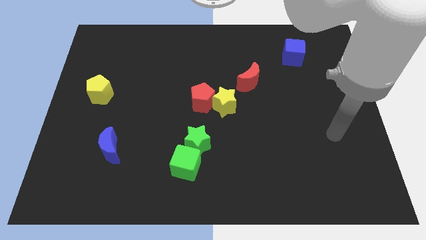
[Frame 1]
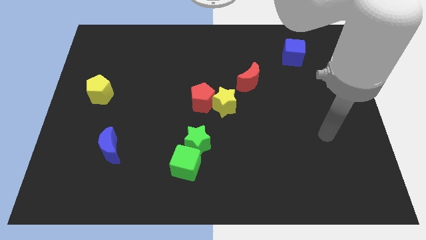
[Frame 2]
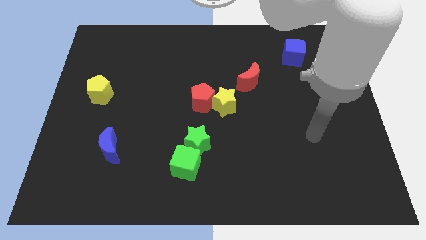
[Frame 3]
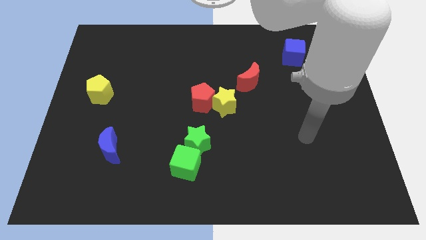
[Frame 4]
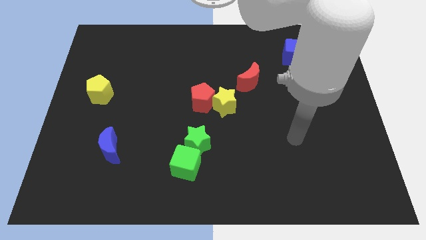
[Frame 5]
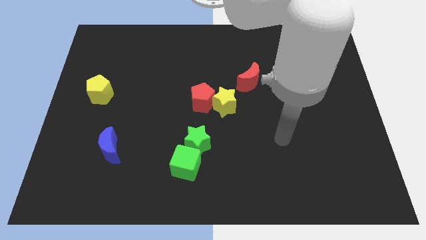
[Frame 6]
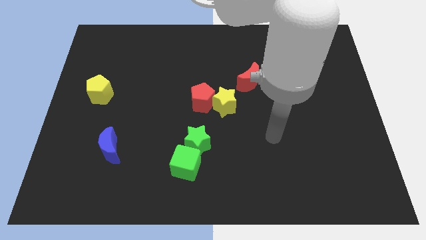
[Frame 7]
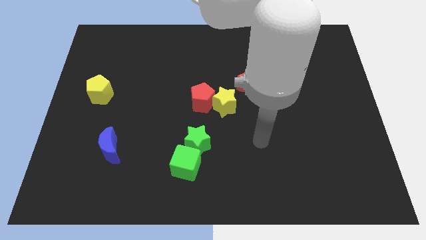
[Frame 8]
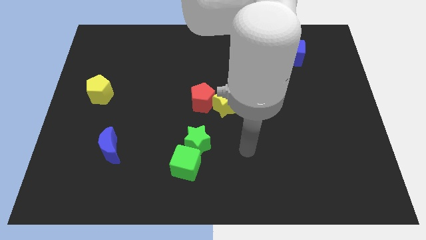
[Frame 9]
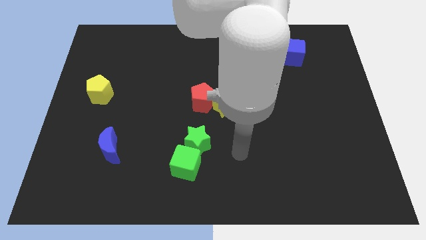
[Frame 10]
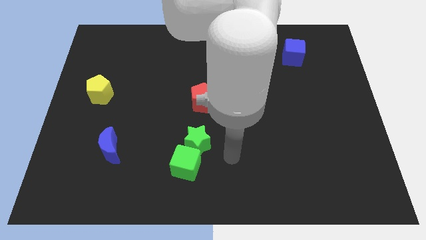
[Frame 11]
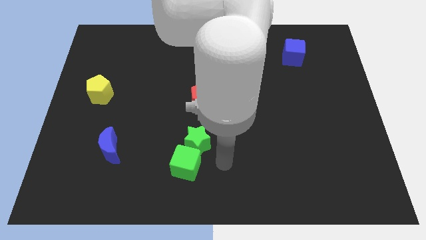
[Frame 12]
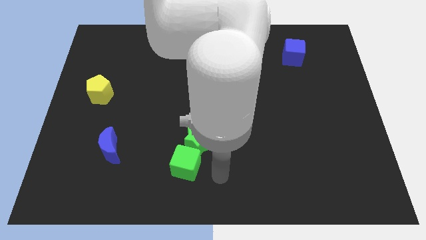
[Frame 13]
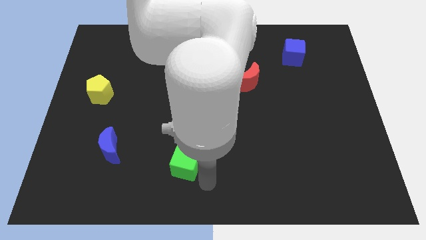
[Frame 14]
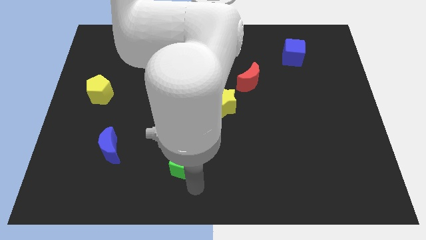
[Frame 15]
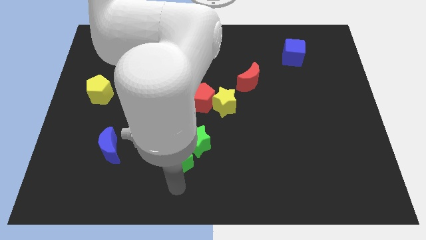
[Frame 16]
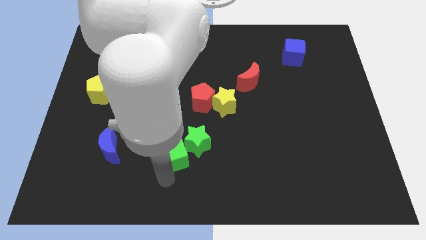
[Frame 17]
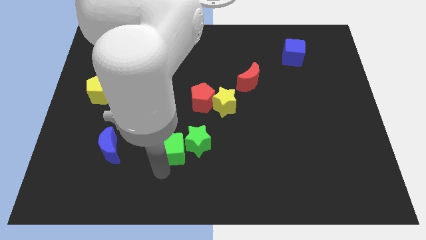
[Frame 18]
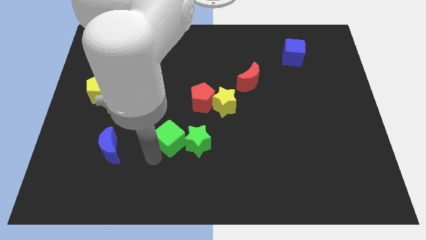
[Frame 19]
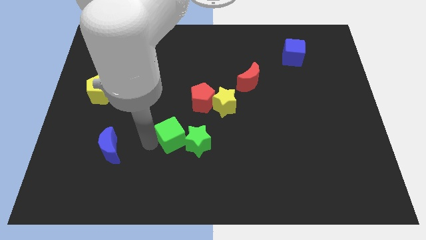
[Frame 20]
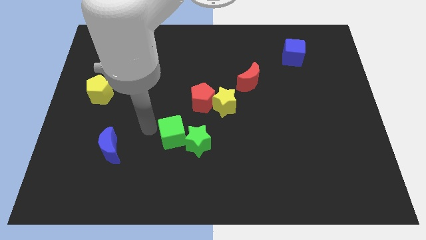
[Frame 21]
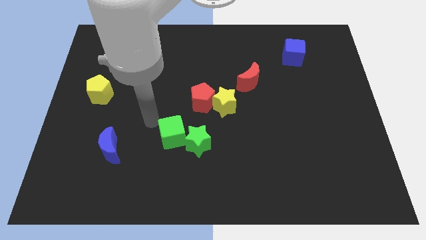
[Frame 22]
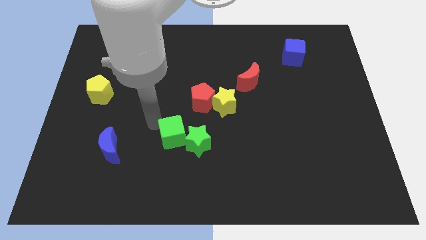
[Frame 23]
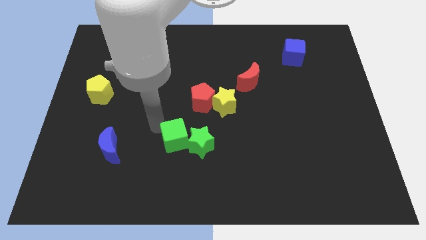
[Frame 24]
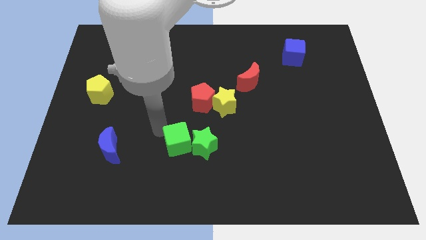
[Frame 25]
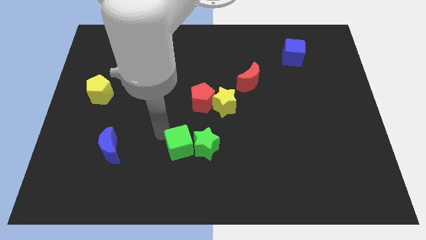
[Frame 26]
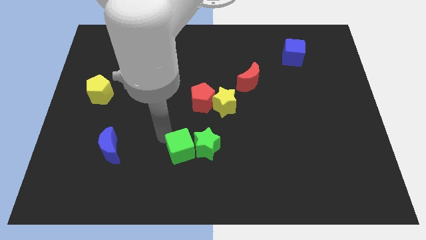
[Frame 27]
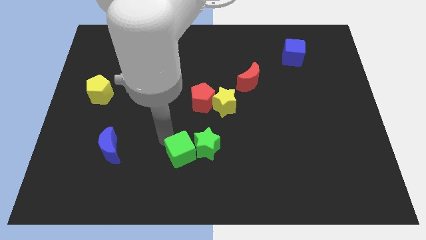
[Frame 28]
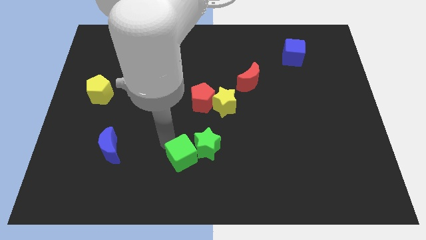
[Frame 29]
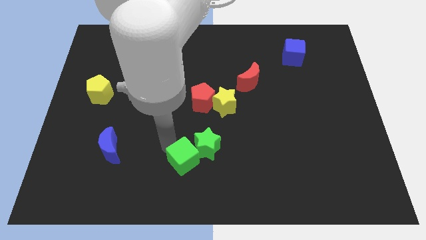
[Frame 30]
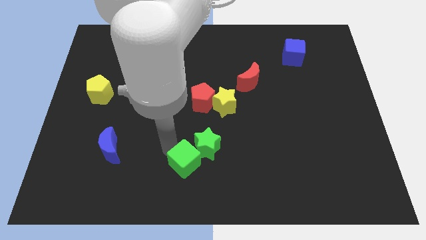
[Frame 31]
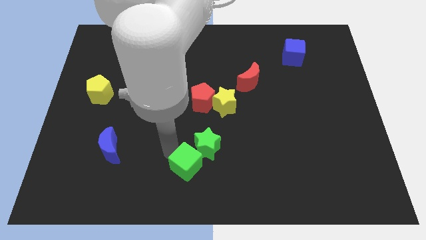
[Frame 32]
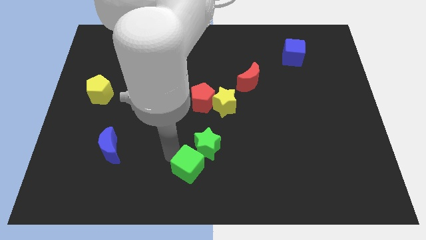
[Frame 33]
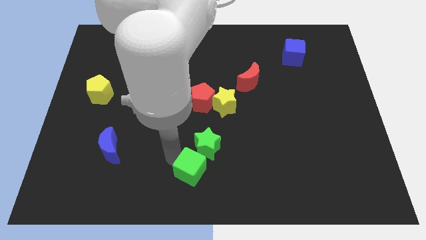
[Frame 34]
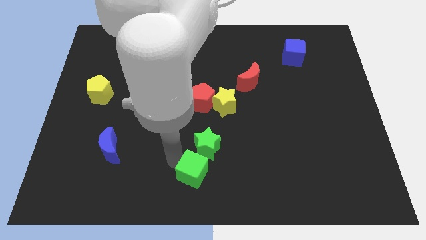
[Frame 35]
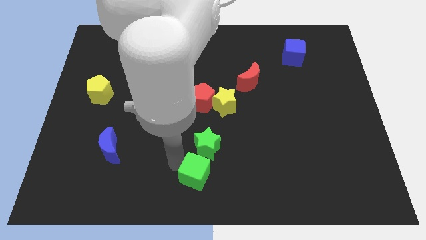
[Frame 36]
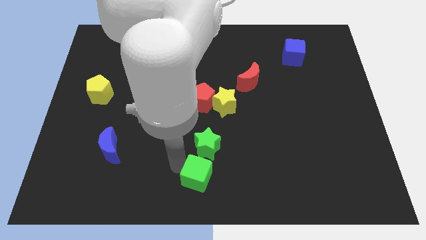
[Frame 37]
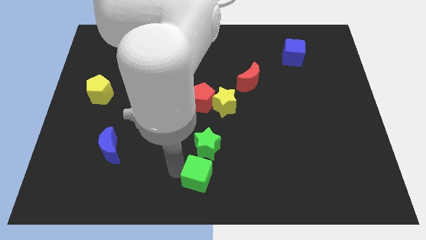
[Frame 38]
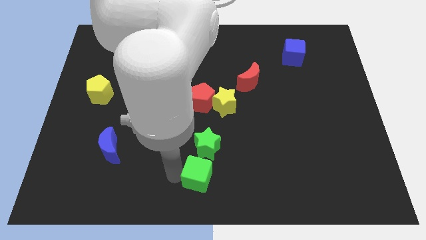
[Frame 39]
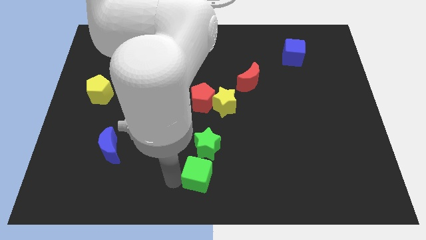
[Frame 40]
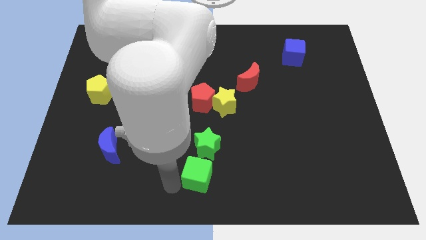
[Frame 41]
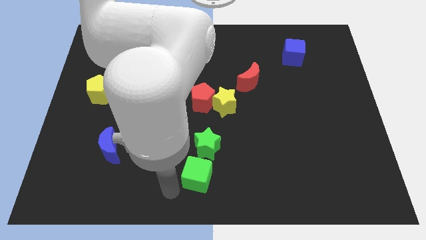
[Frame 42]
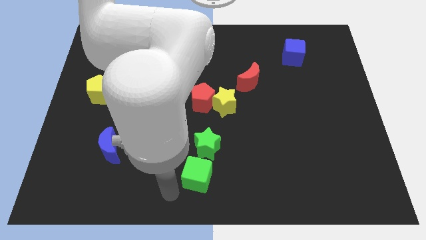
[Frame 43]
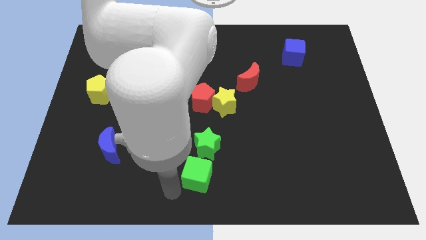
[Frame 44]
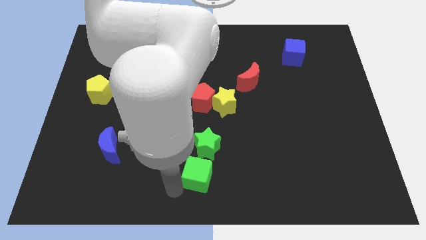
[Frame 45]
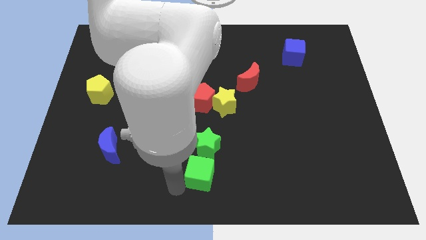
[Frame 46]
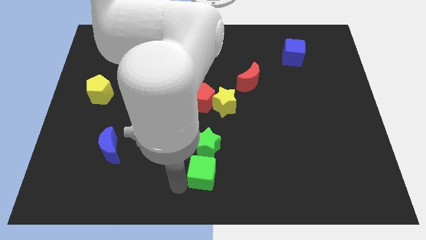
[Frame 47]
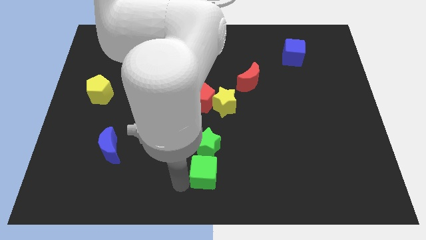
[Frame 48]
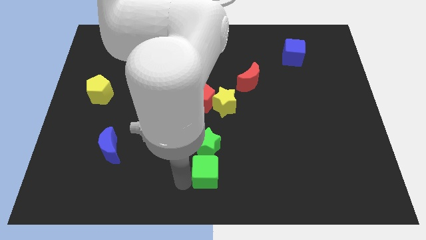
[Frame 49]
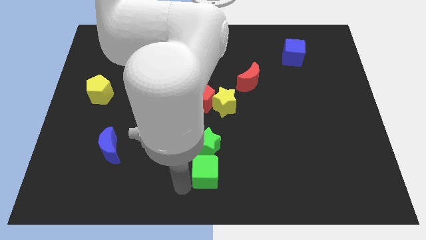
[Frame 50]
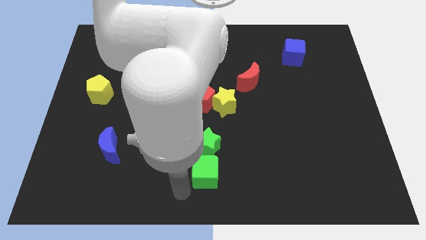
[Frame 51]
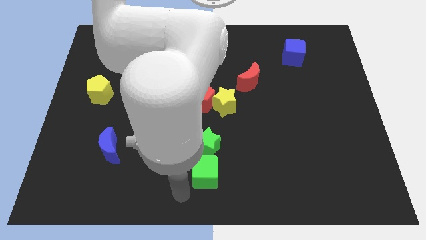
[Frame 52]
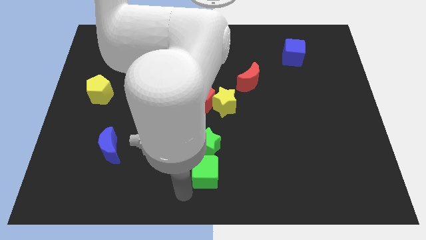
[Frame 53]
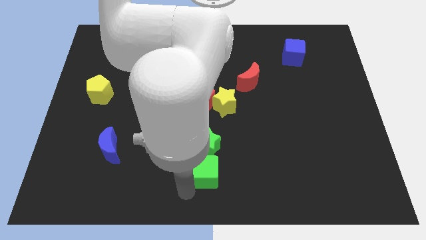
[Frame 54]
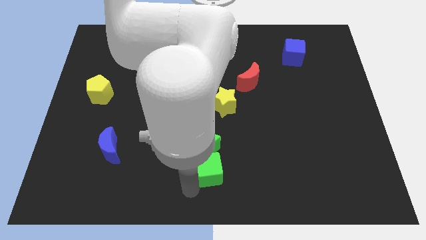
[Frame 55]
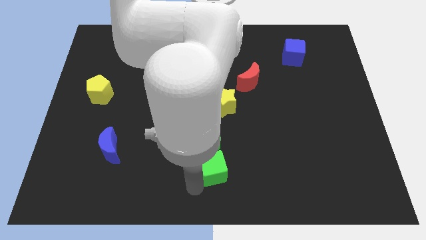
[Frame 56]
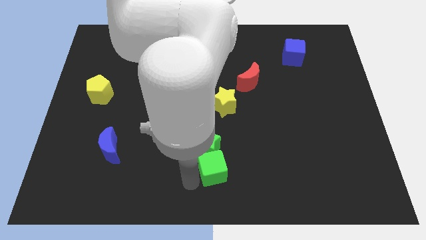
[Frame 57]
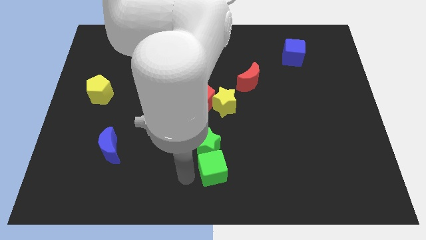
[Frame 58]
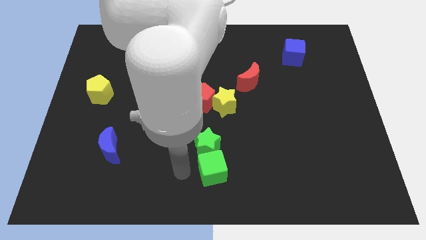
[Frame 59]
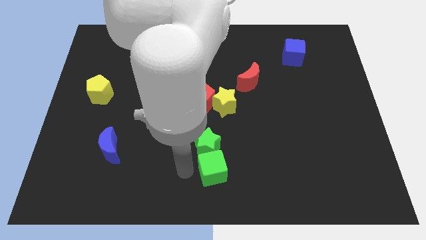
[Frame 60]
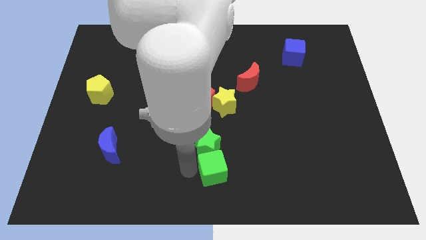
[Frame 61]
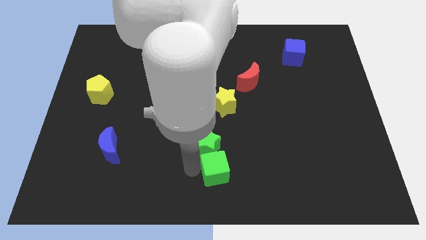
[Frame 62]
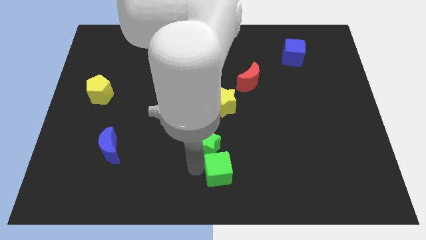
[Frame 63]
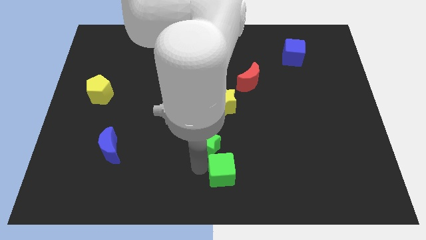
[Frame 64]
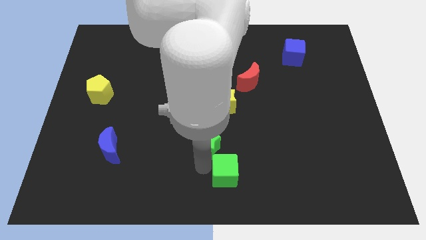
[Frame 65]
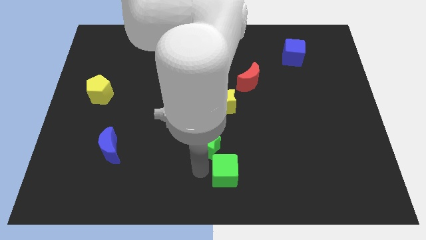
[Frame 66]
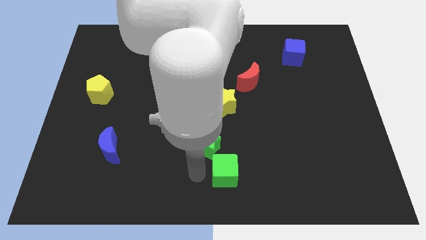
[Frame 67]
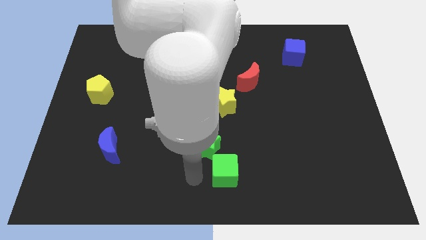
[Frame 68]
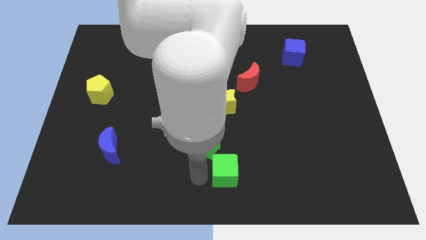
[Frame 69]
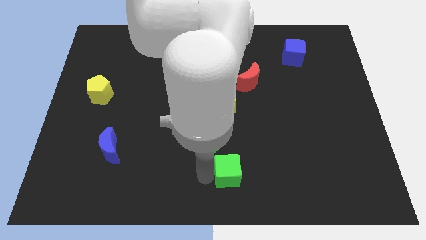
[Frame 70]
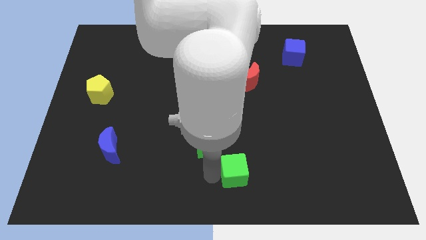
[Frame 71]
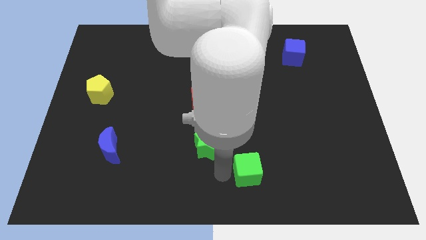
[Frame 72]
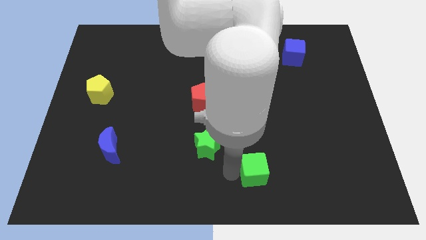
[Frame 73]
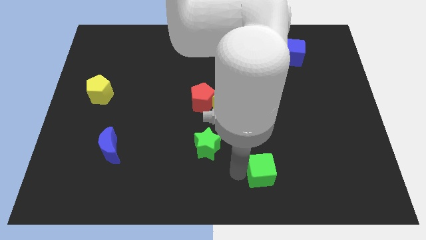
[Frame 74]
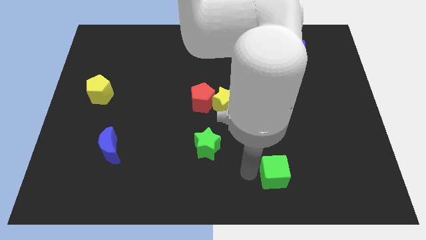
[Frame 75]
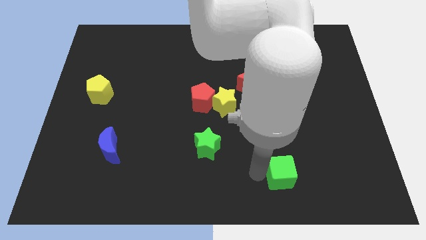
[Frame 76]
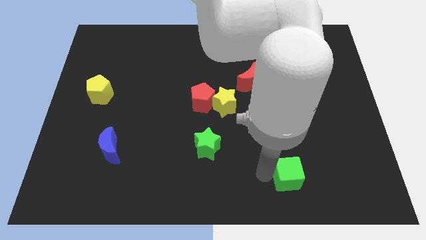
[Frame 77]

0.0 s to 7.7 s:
push the green cube to the right

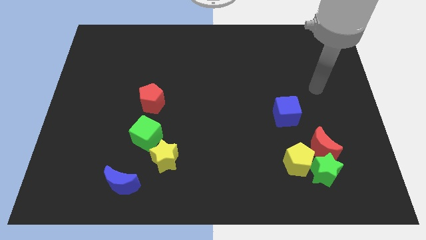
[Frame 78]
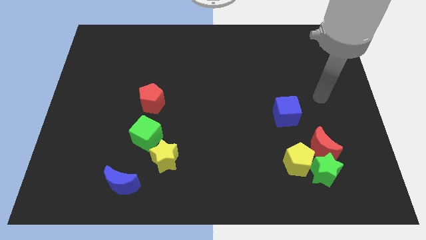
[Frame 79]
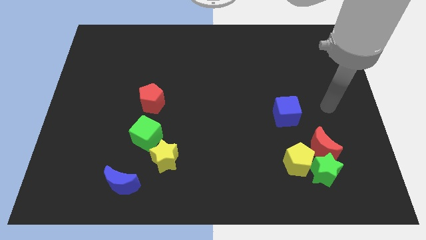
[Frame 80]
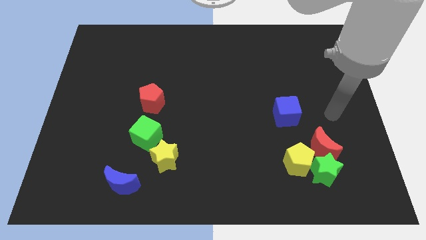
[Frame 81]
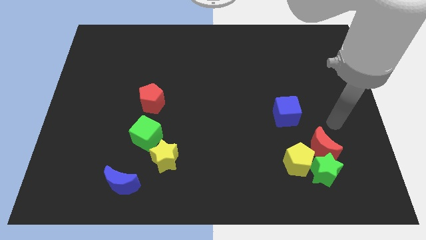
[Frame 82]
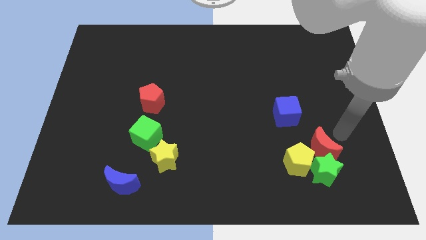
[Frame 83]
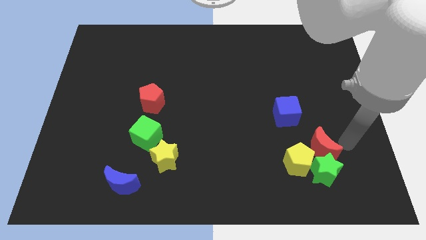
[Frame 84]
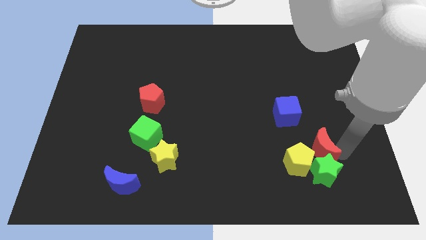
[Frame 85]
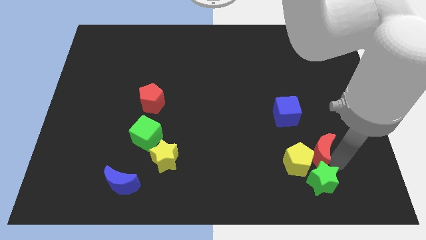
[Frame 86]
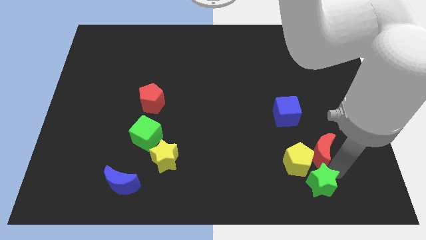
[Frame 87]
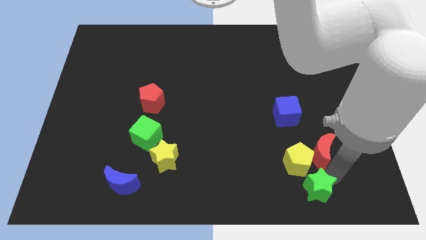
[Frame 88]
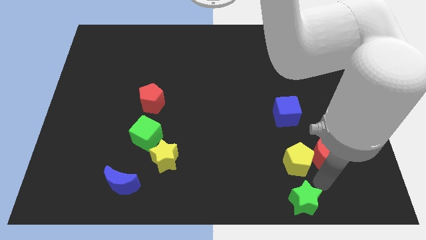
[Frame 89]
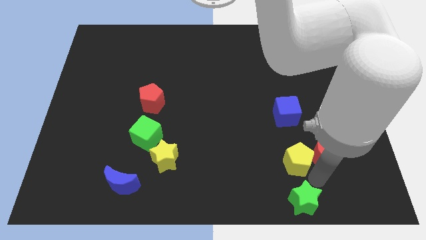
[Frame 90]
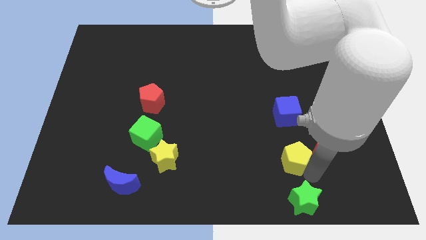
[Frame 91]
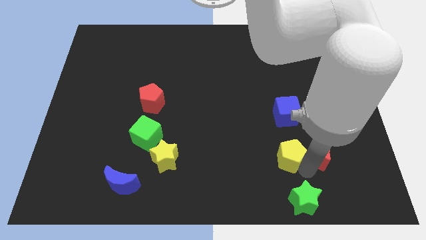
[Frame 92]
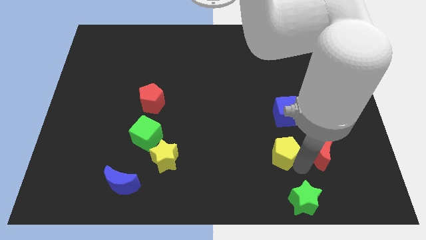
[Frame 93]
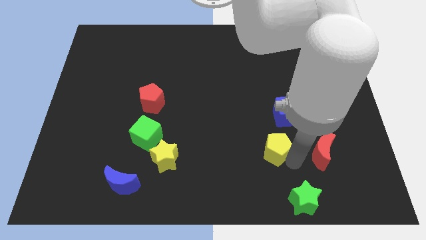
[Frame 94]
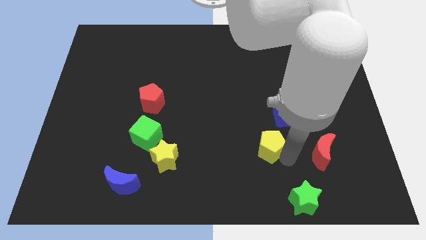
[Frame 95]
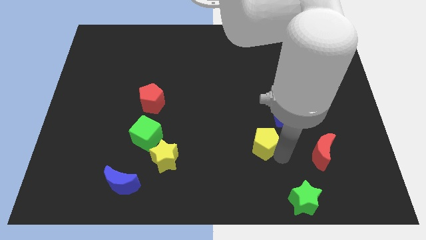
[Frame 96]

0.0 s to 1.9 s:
push the yellow pentagon diagonally upwards and left a bit
